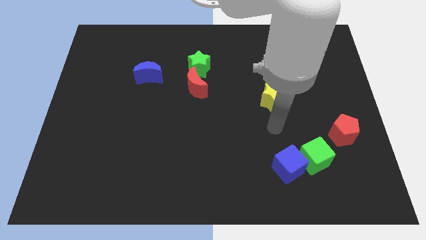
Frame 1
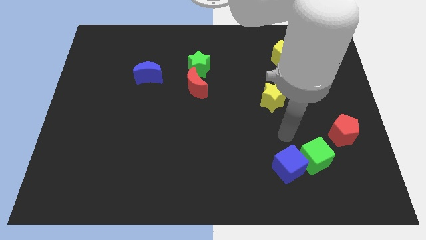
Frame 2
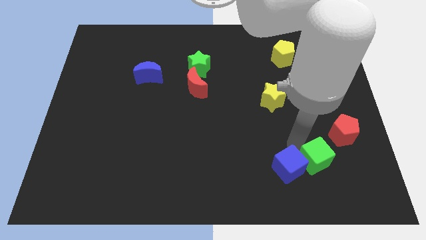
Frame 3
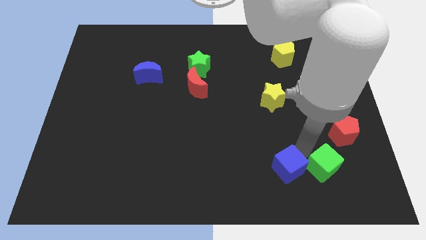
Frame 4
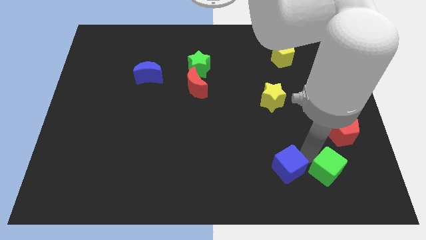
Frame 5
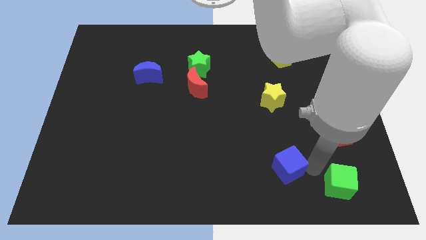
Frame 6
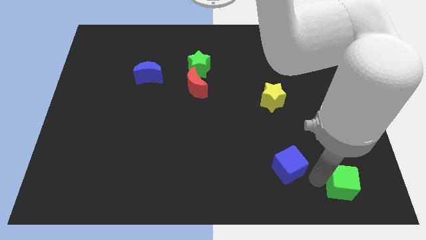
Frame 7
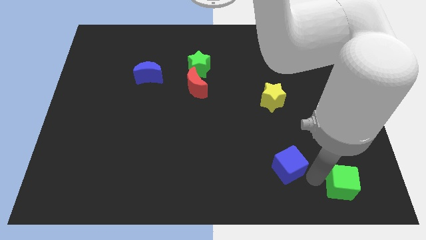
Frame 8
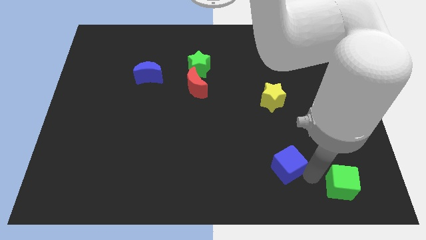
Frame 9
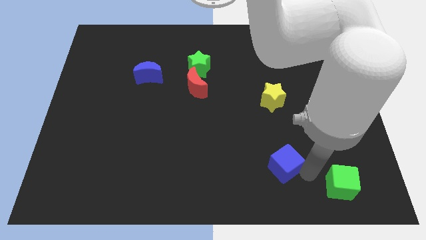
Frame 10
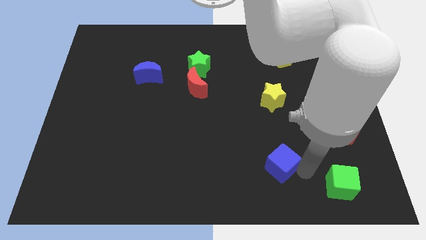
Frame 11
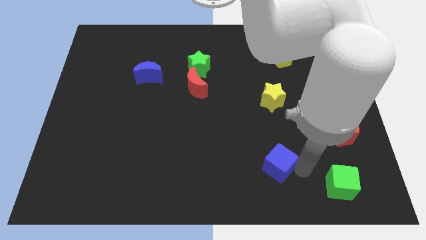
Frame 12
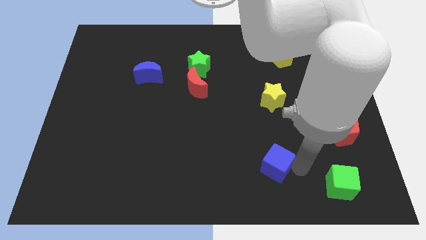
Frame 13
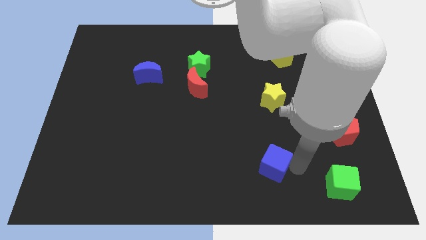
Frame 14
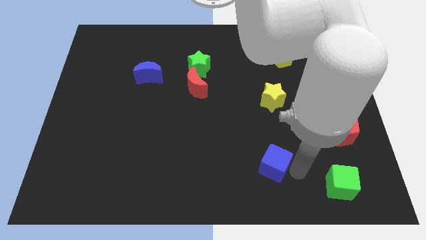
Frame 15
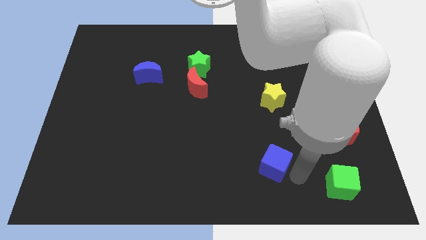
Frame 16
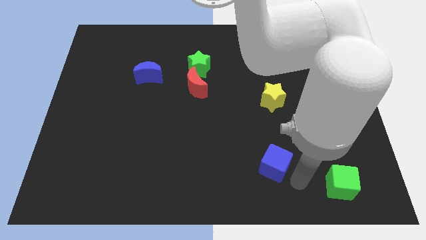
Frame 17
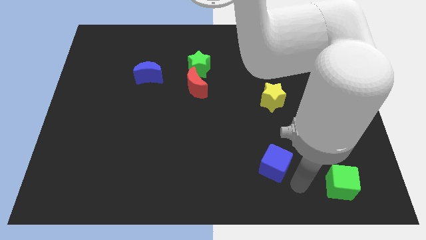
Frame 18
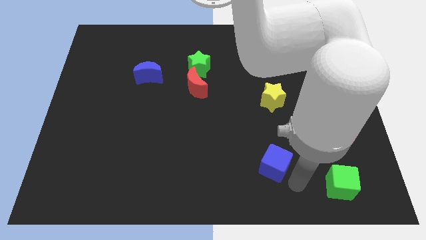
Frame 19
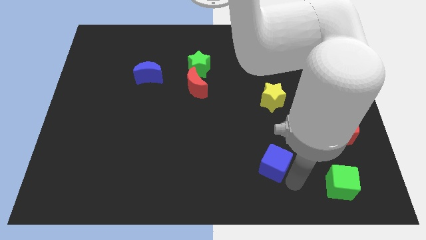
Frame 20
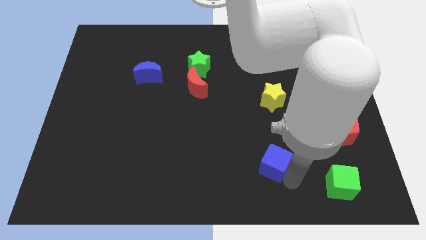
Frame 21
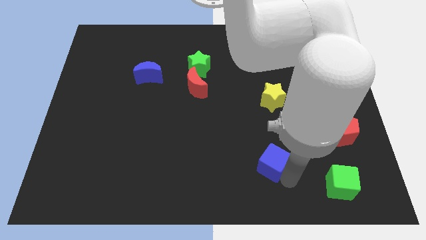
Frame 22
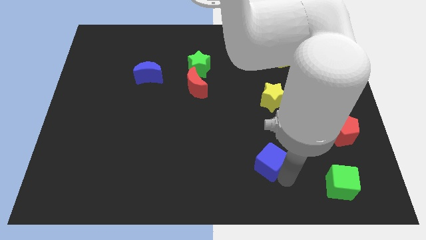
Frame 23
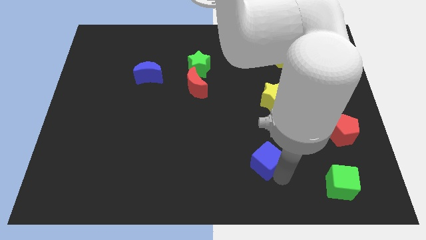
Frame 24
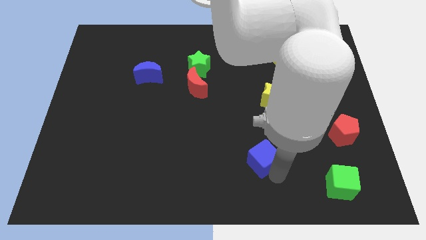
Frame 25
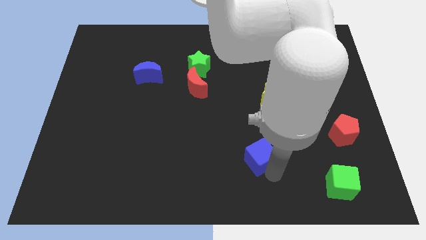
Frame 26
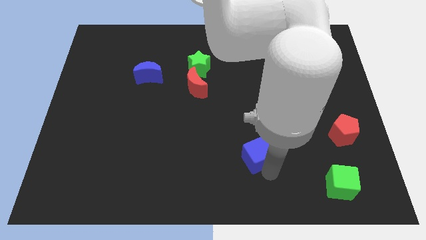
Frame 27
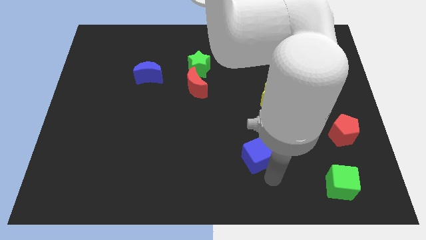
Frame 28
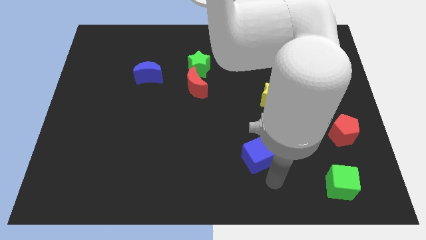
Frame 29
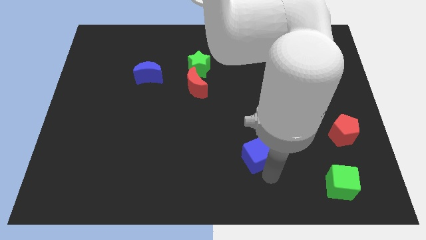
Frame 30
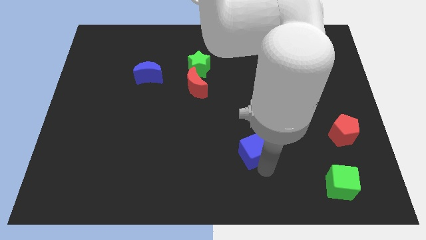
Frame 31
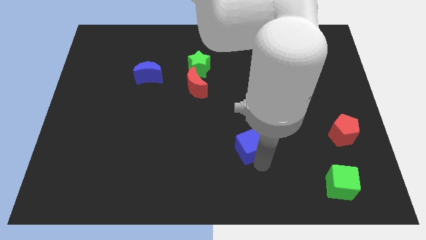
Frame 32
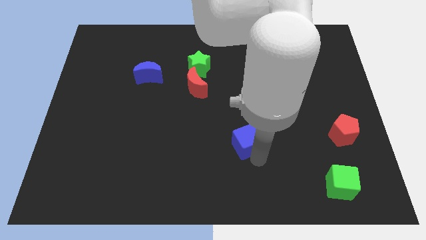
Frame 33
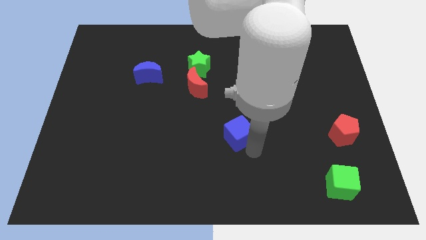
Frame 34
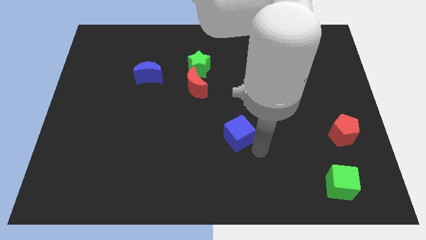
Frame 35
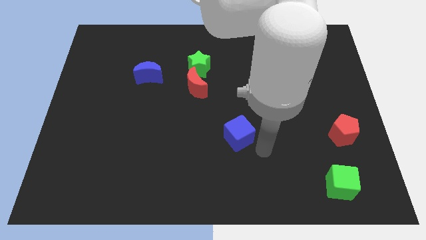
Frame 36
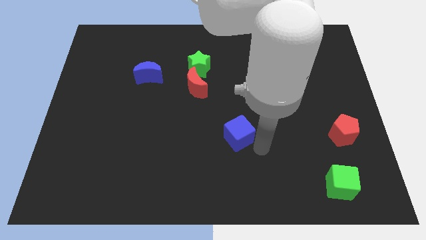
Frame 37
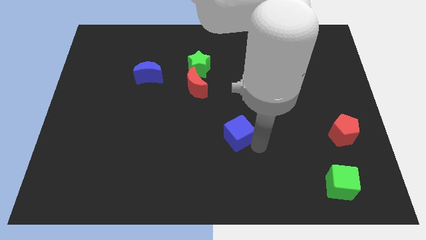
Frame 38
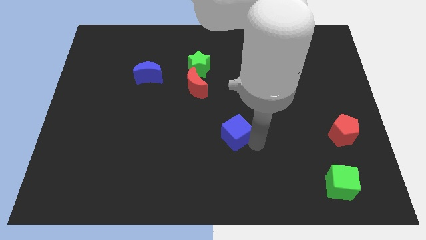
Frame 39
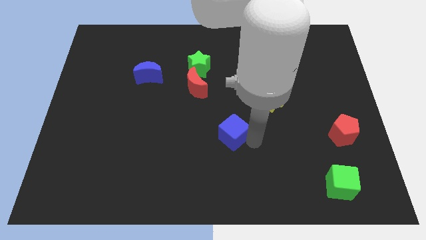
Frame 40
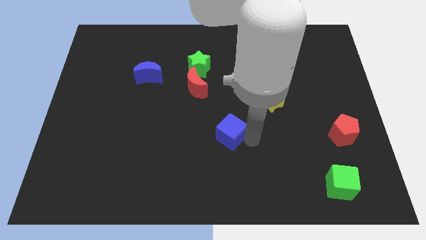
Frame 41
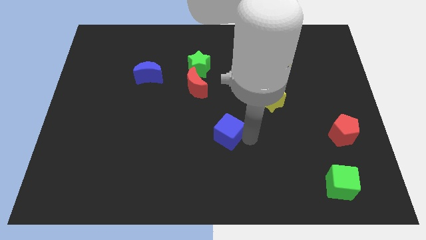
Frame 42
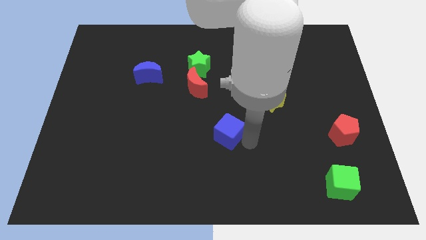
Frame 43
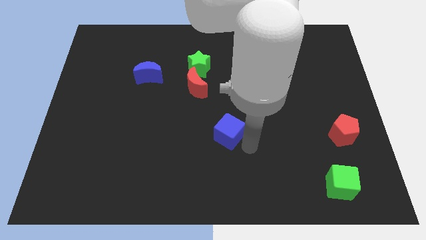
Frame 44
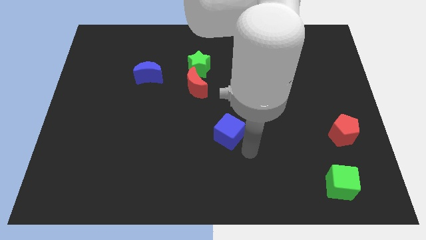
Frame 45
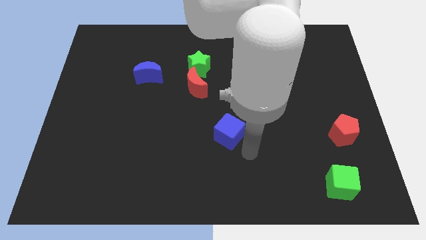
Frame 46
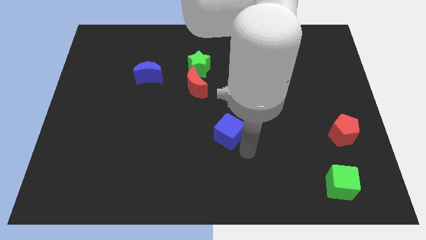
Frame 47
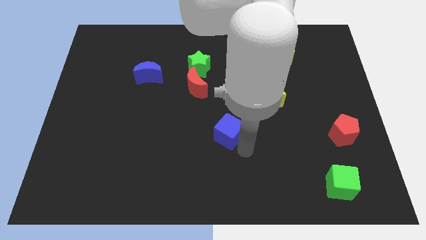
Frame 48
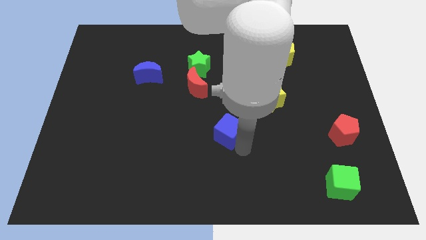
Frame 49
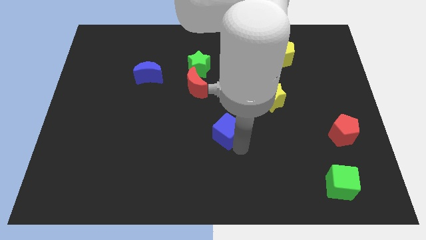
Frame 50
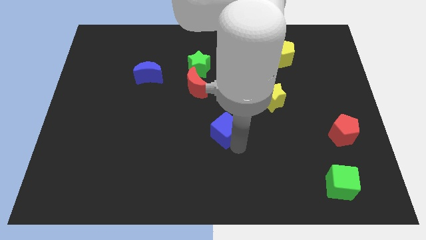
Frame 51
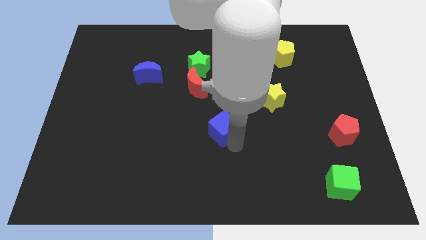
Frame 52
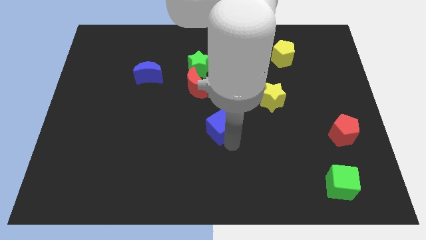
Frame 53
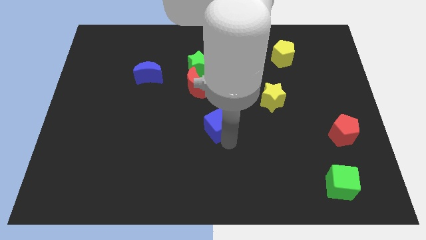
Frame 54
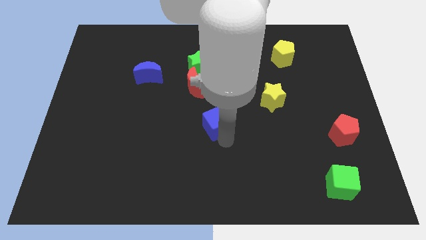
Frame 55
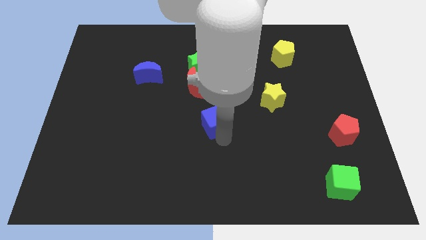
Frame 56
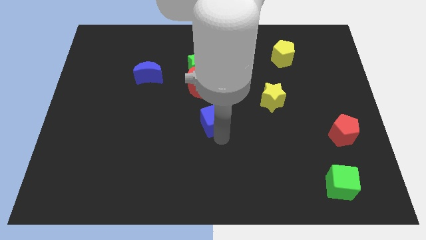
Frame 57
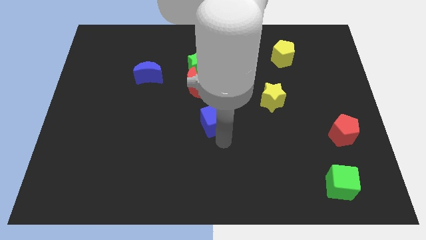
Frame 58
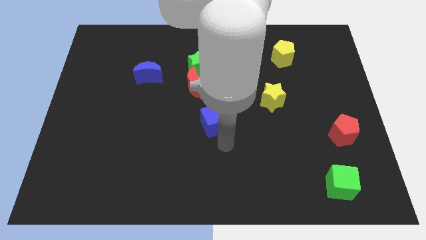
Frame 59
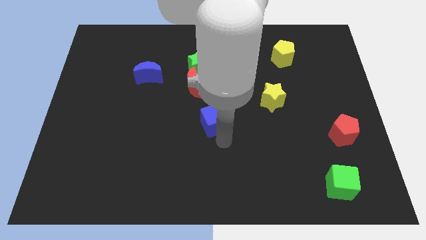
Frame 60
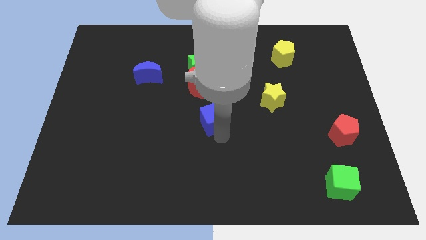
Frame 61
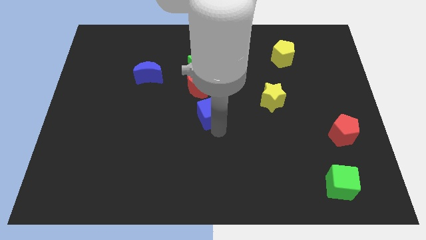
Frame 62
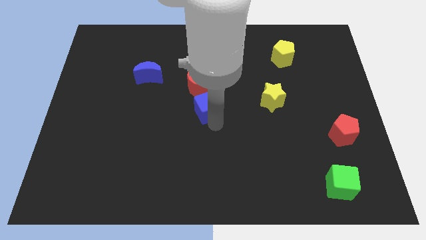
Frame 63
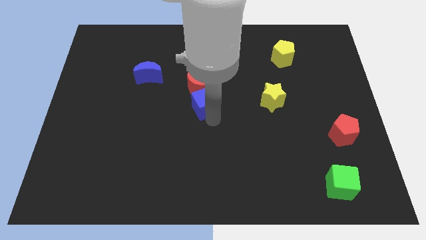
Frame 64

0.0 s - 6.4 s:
slide the blue cube to the red moon

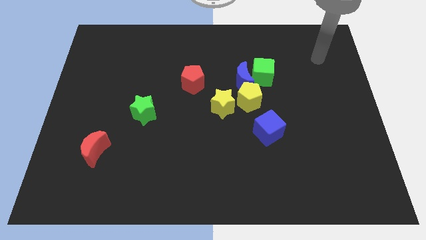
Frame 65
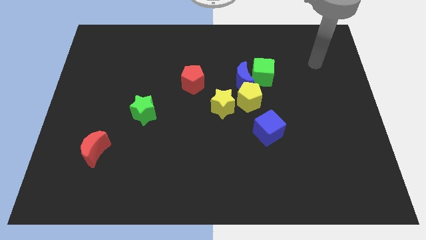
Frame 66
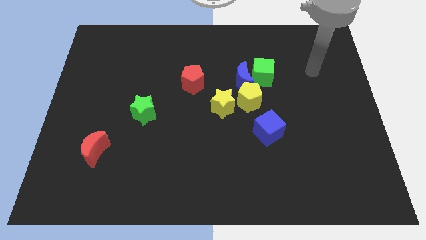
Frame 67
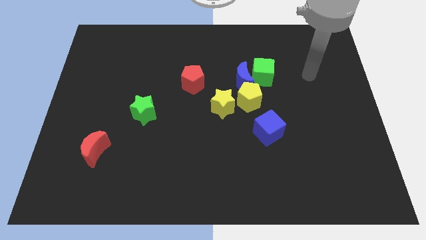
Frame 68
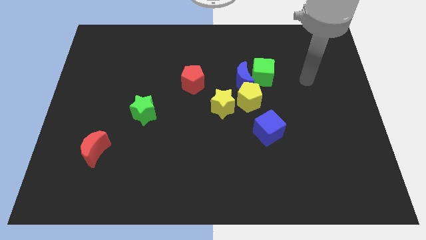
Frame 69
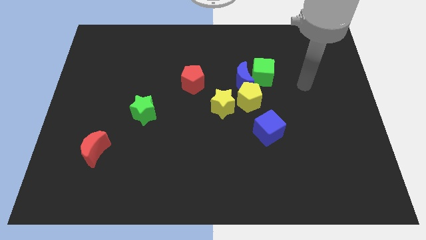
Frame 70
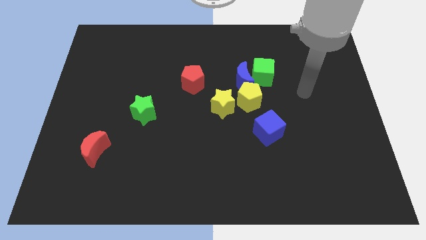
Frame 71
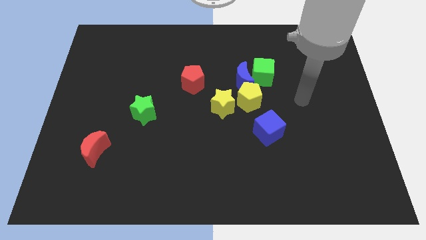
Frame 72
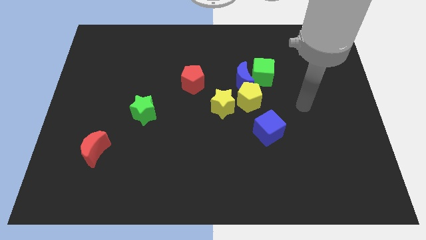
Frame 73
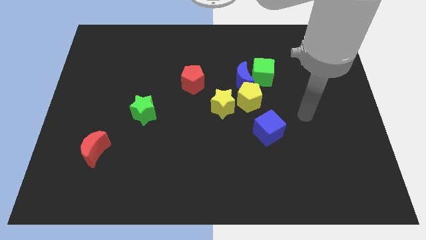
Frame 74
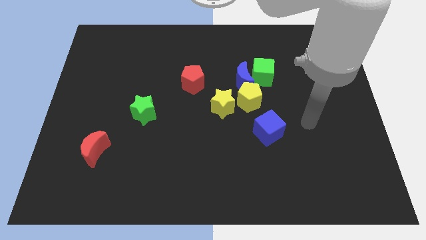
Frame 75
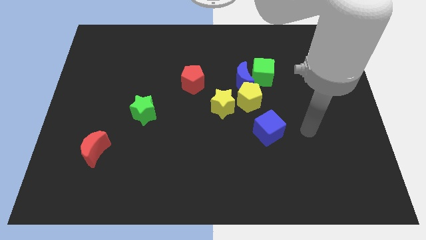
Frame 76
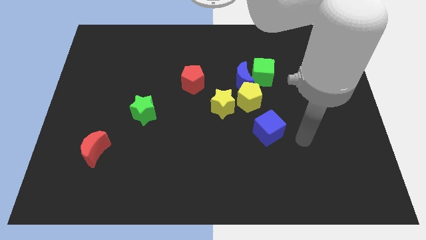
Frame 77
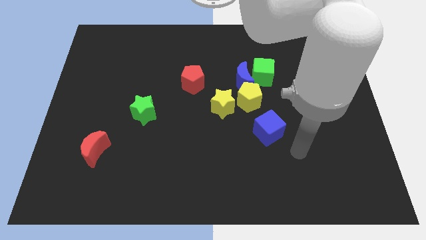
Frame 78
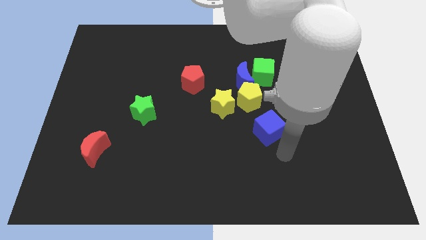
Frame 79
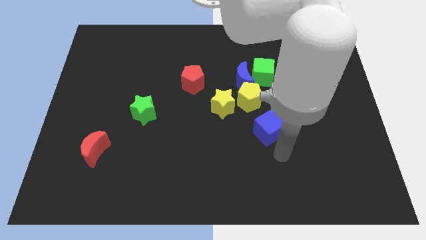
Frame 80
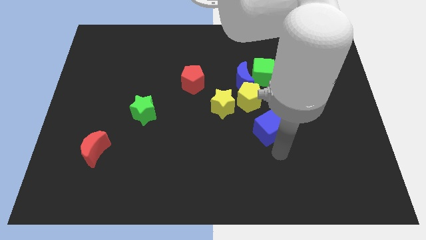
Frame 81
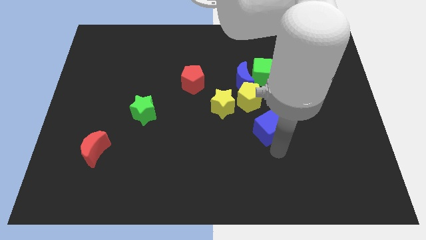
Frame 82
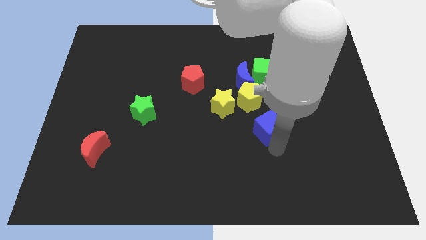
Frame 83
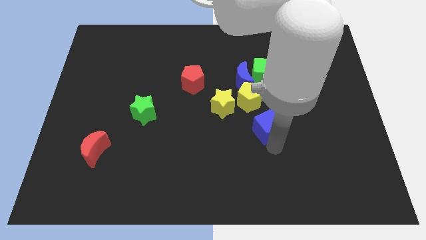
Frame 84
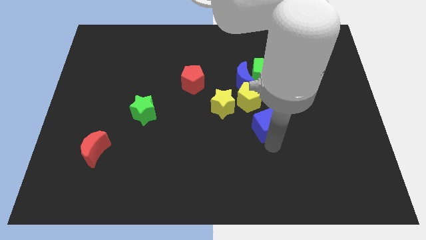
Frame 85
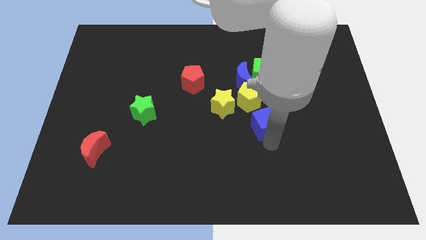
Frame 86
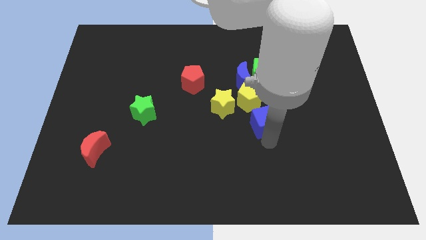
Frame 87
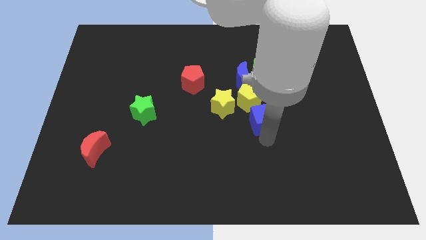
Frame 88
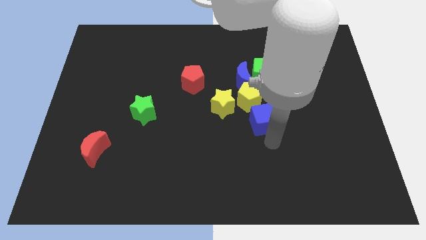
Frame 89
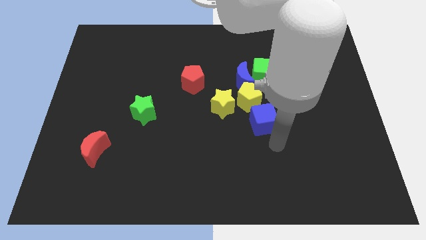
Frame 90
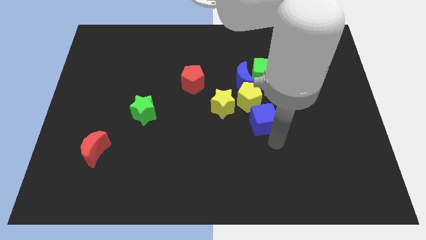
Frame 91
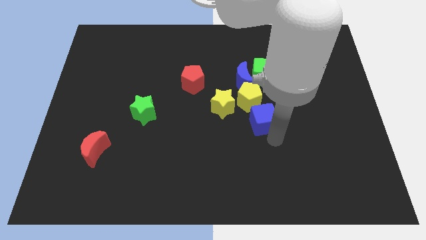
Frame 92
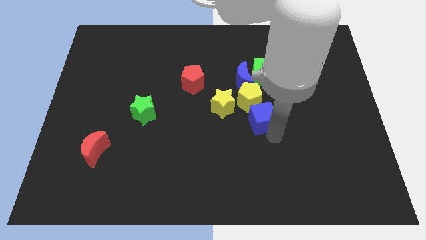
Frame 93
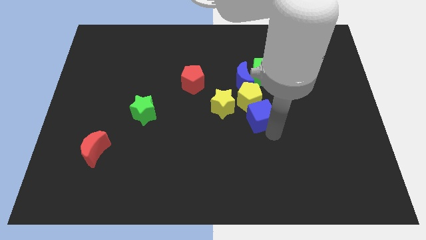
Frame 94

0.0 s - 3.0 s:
push the blue cube towards the yellow pentagon
